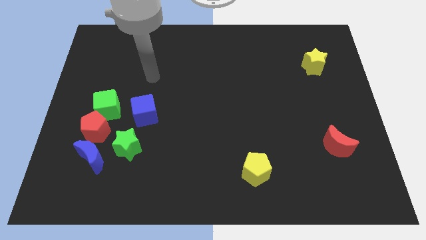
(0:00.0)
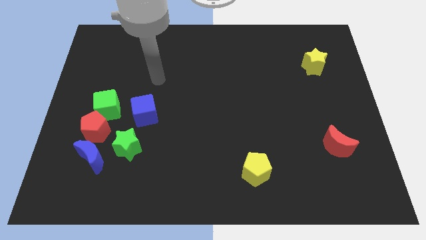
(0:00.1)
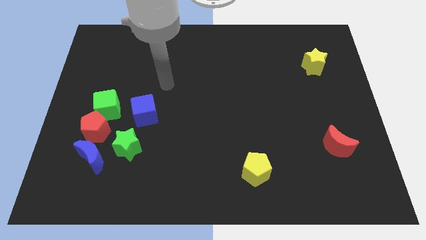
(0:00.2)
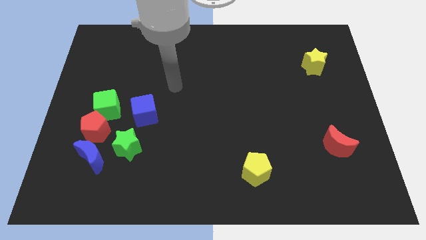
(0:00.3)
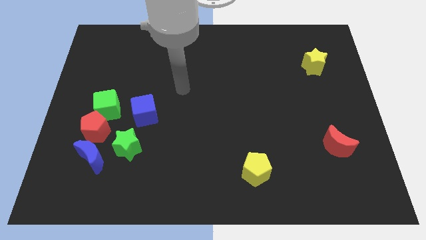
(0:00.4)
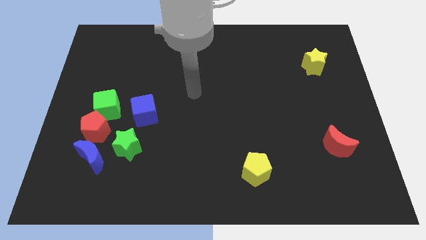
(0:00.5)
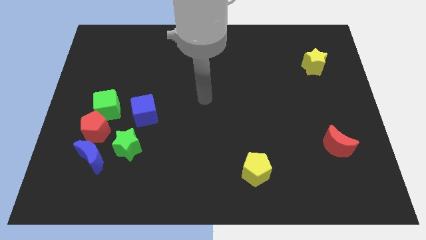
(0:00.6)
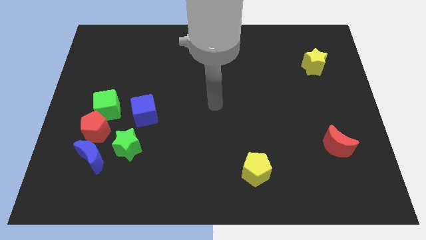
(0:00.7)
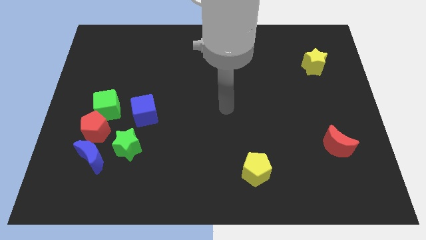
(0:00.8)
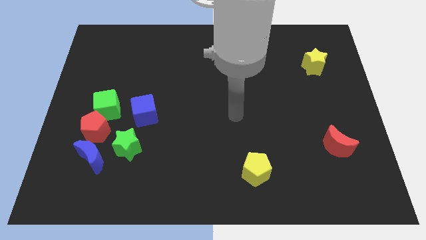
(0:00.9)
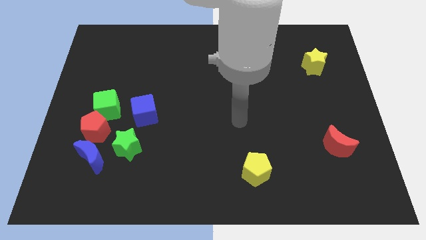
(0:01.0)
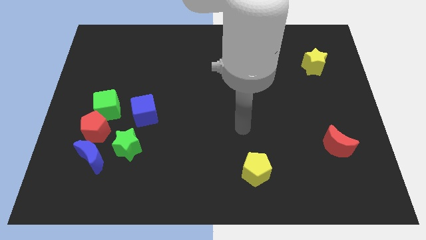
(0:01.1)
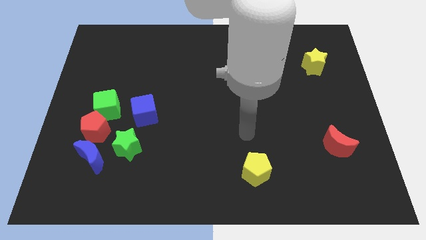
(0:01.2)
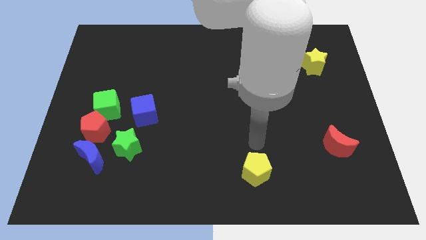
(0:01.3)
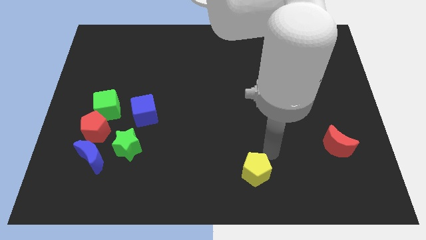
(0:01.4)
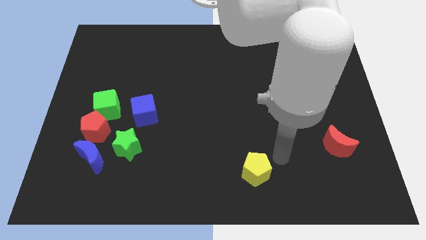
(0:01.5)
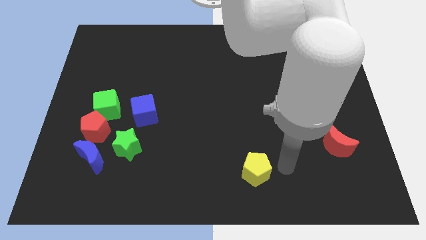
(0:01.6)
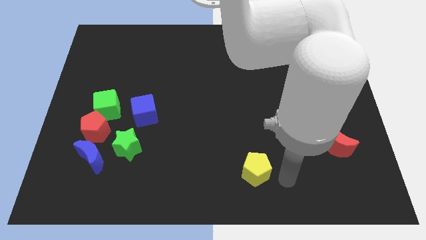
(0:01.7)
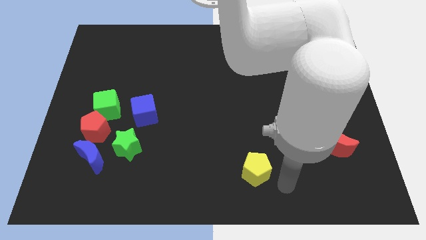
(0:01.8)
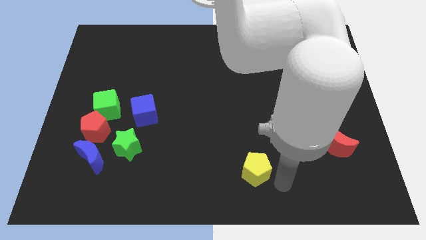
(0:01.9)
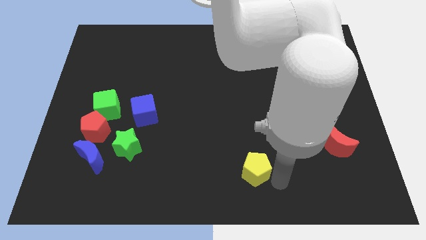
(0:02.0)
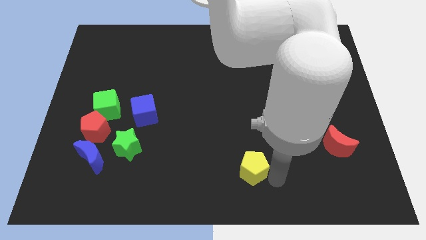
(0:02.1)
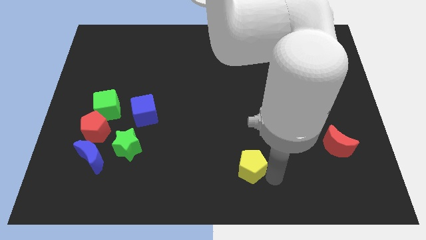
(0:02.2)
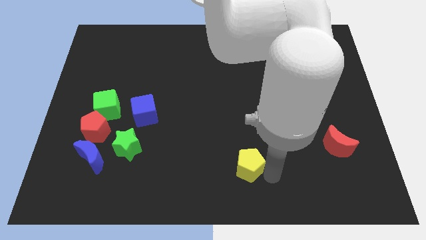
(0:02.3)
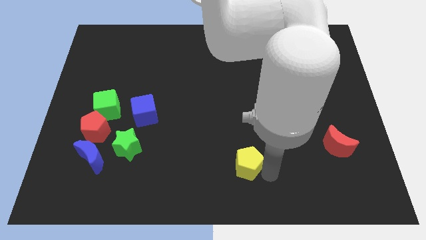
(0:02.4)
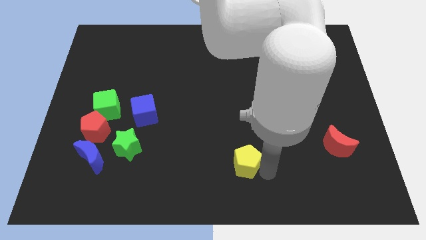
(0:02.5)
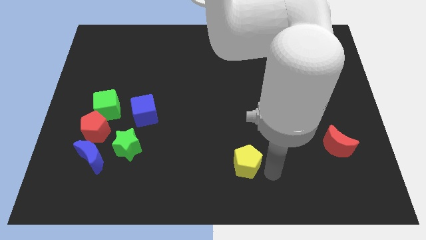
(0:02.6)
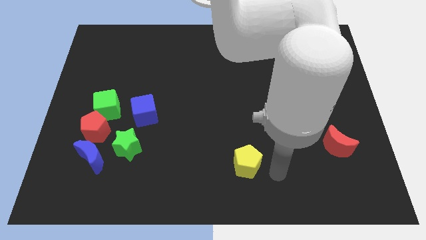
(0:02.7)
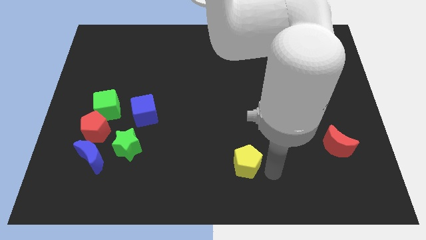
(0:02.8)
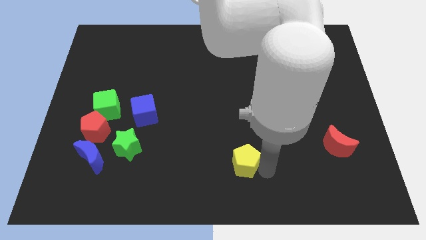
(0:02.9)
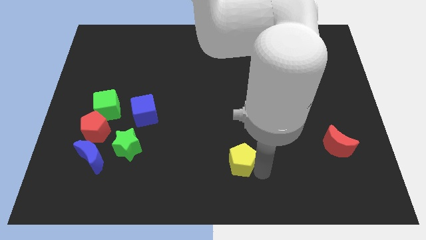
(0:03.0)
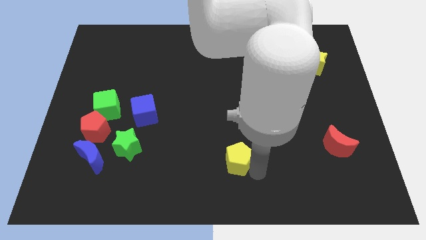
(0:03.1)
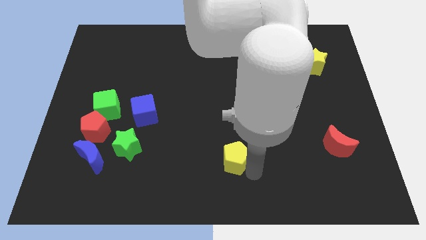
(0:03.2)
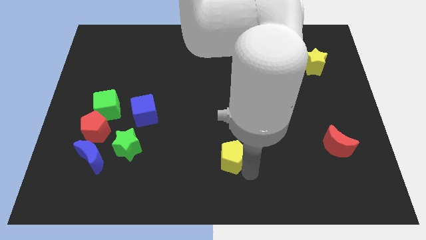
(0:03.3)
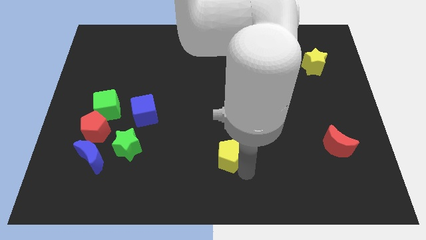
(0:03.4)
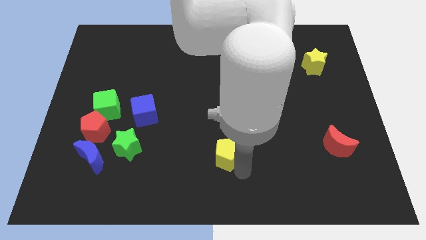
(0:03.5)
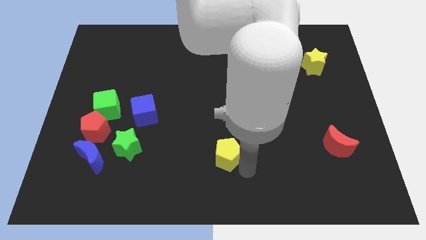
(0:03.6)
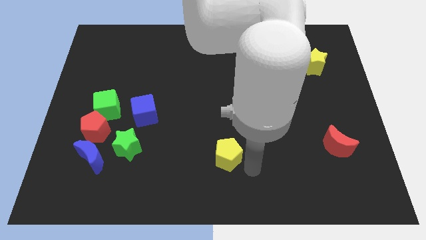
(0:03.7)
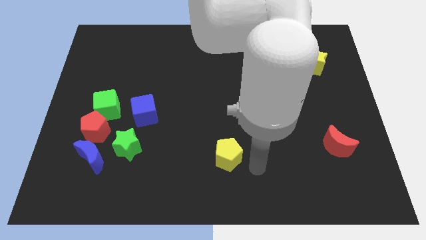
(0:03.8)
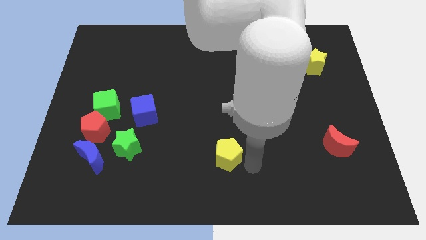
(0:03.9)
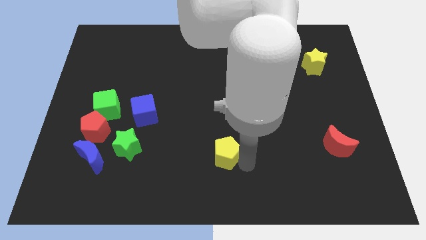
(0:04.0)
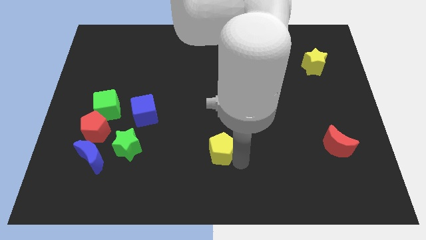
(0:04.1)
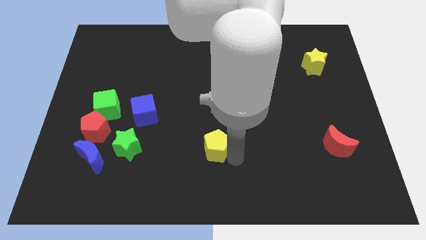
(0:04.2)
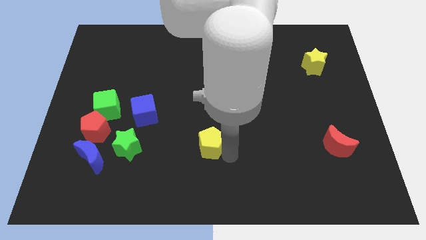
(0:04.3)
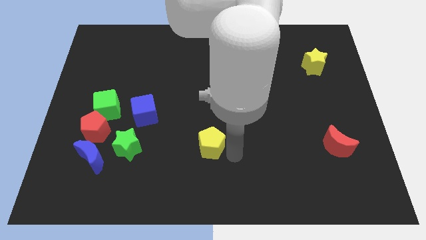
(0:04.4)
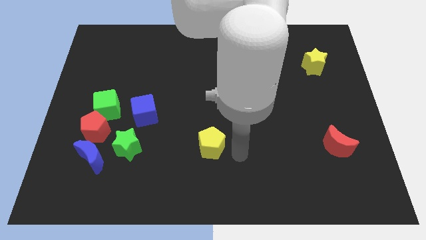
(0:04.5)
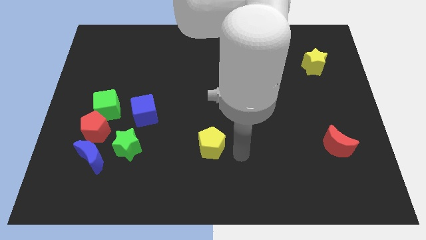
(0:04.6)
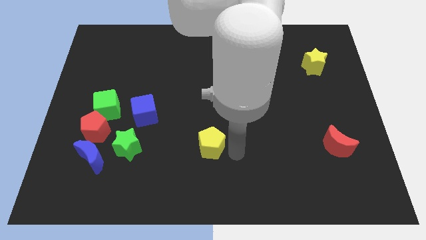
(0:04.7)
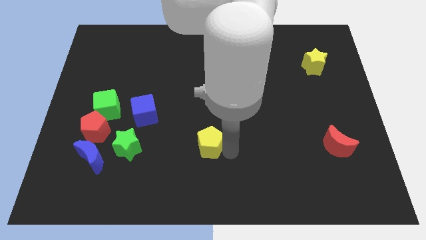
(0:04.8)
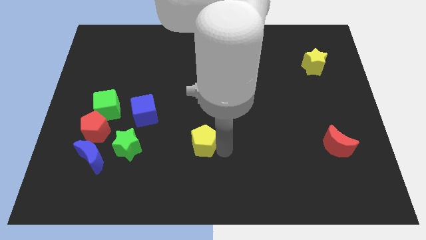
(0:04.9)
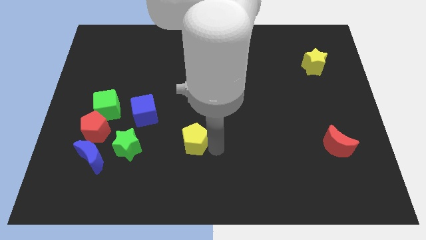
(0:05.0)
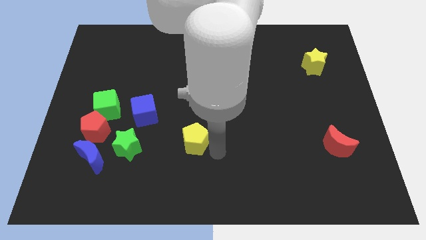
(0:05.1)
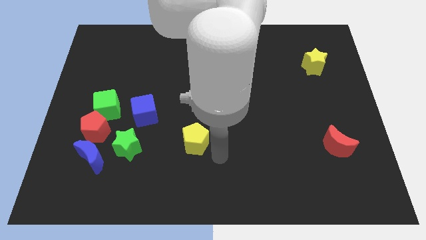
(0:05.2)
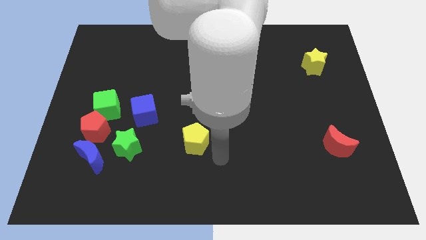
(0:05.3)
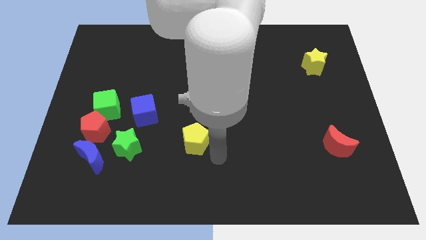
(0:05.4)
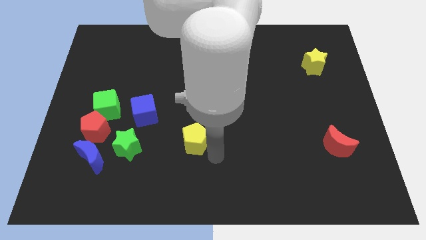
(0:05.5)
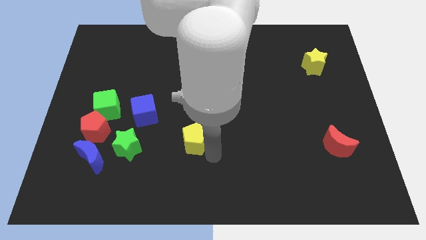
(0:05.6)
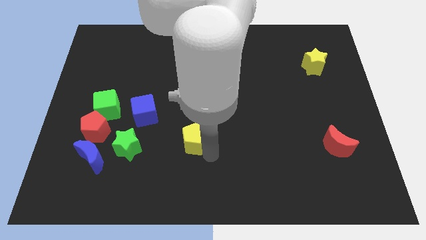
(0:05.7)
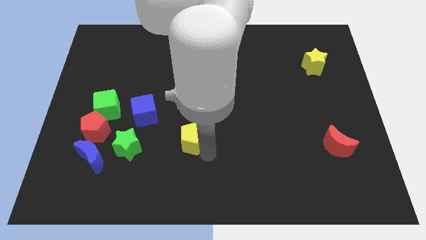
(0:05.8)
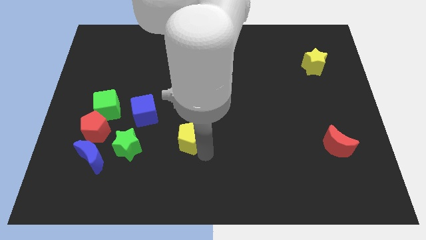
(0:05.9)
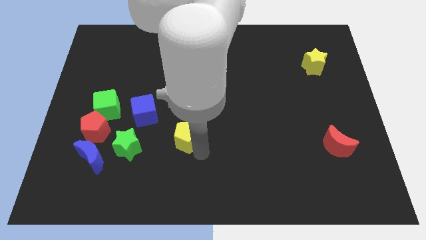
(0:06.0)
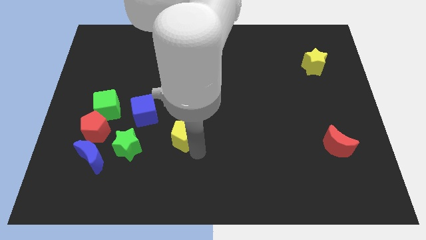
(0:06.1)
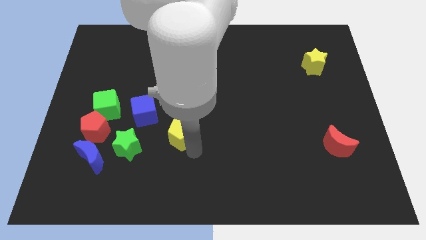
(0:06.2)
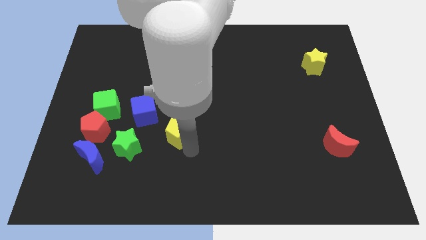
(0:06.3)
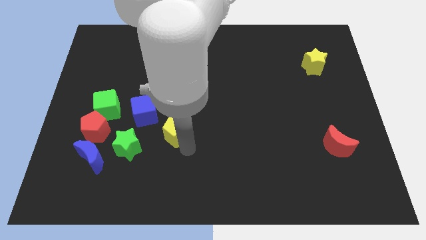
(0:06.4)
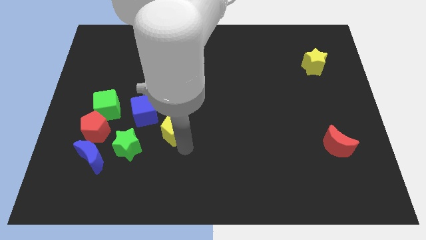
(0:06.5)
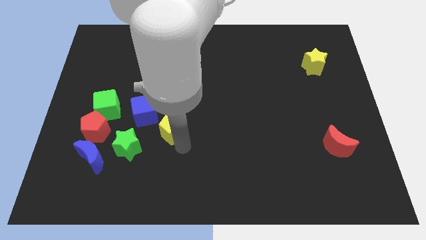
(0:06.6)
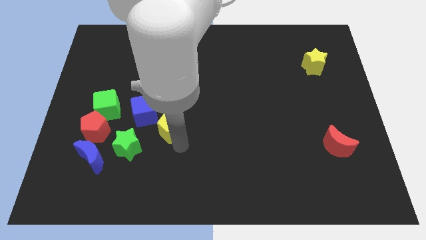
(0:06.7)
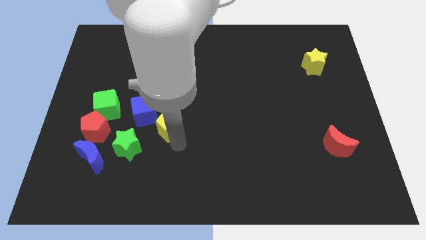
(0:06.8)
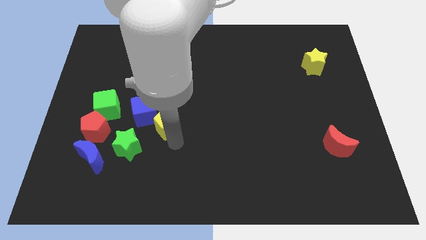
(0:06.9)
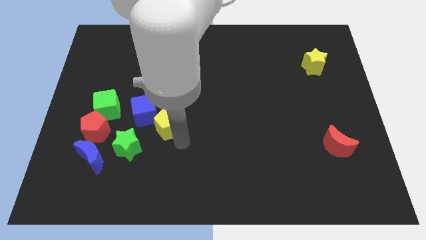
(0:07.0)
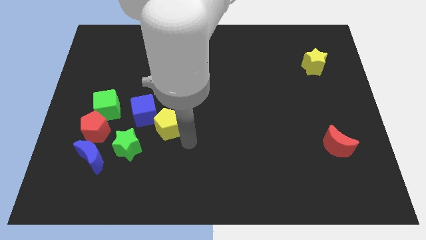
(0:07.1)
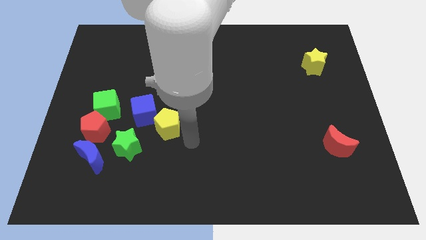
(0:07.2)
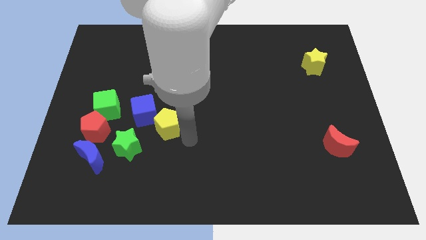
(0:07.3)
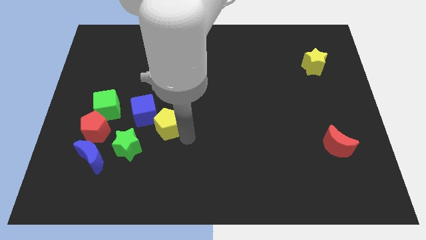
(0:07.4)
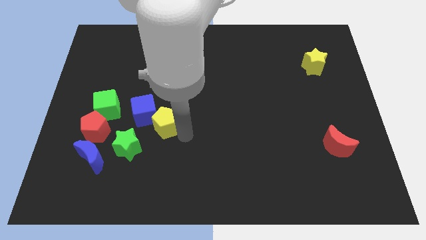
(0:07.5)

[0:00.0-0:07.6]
put the yellow pentagon close to the blue cube

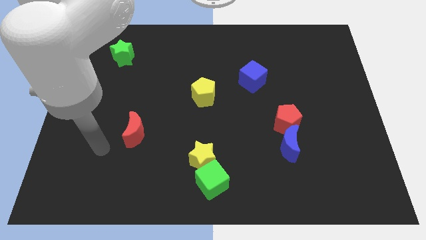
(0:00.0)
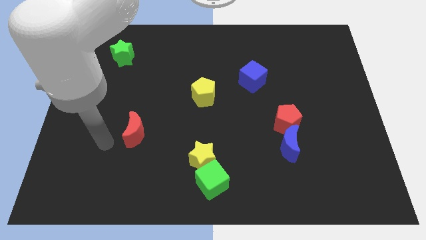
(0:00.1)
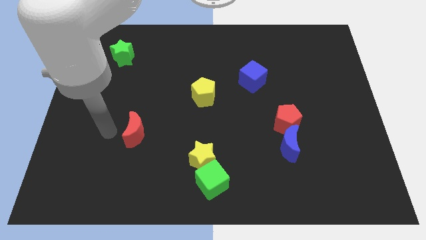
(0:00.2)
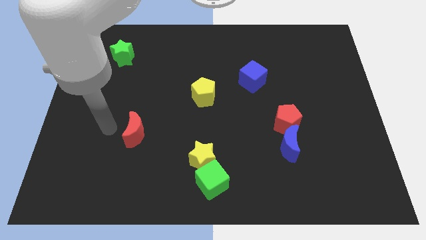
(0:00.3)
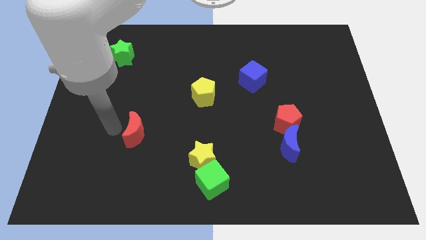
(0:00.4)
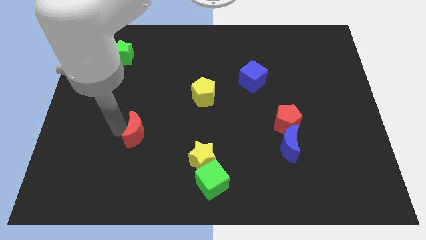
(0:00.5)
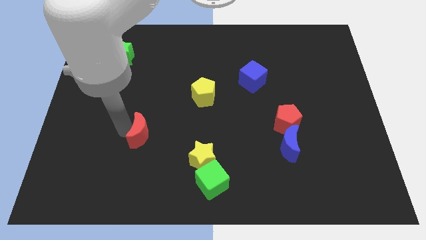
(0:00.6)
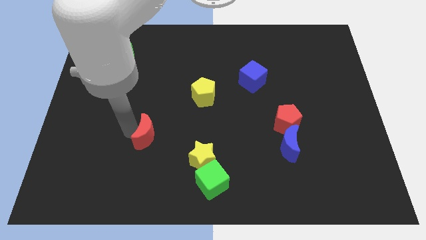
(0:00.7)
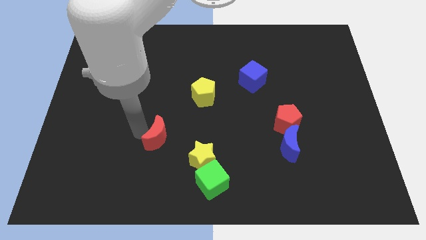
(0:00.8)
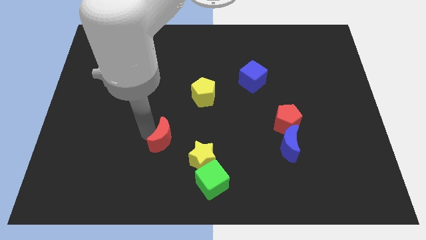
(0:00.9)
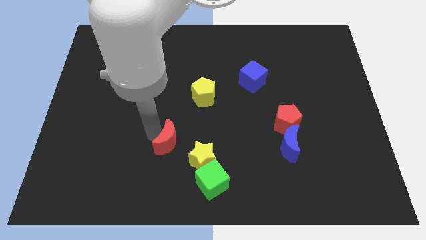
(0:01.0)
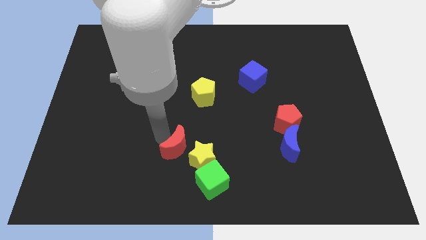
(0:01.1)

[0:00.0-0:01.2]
slide the red moon to the yellow star
